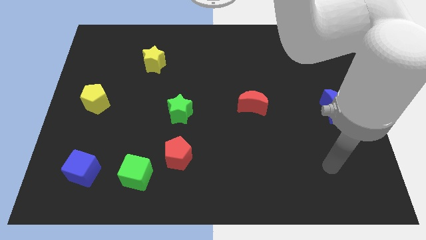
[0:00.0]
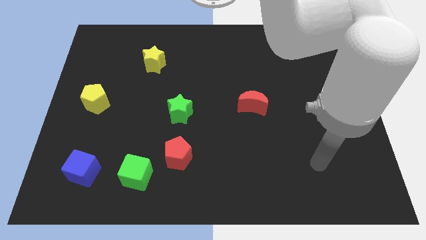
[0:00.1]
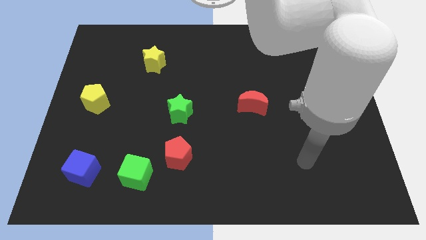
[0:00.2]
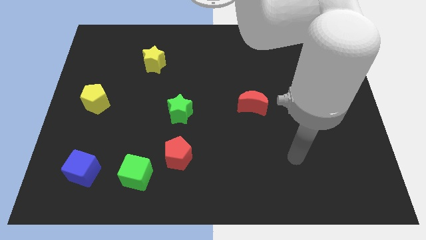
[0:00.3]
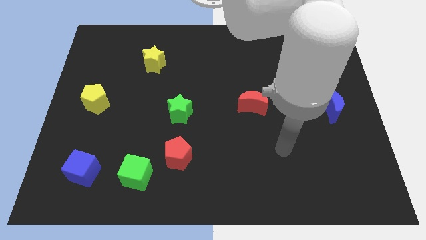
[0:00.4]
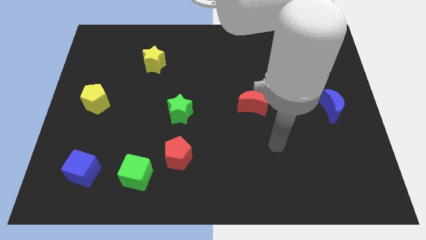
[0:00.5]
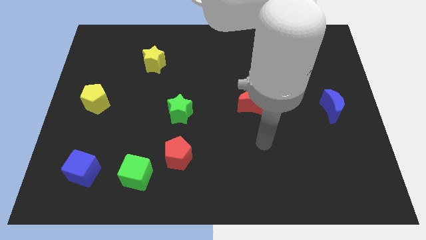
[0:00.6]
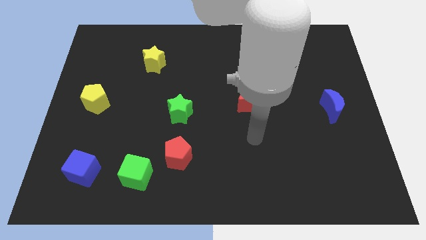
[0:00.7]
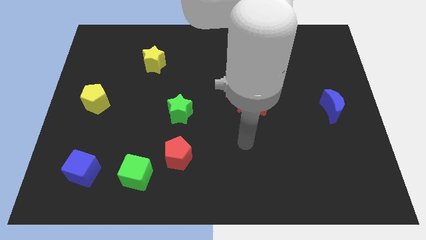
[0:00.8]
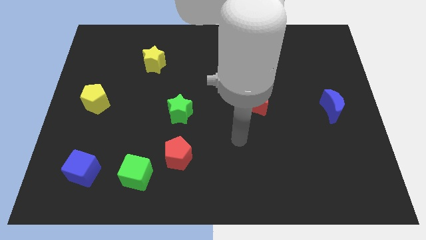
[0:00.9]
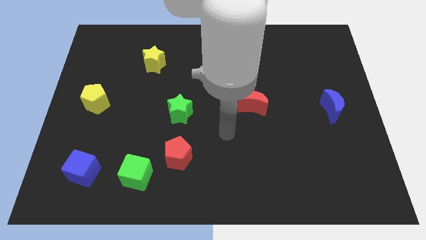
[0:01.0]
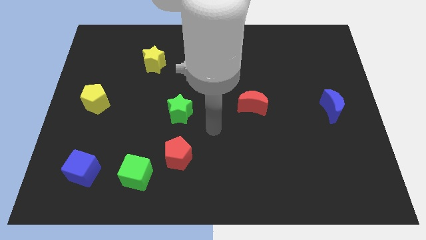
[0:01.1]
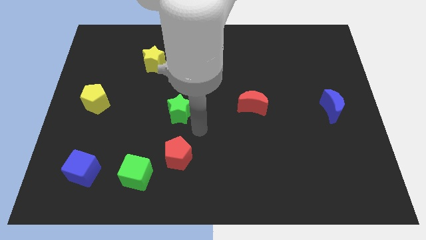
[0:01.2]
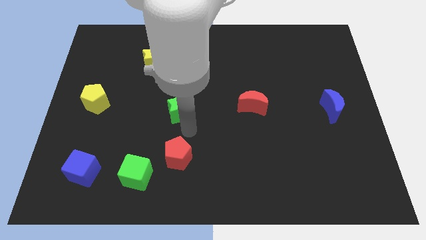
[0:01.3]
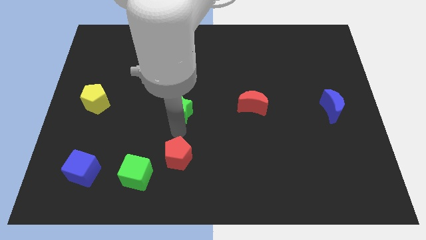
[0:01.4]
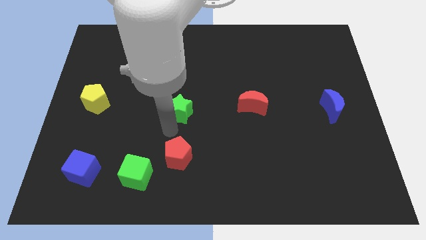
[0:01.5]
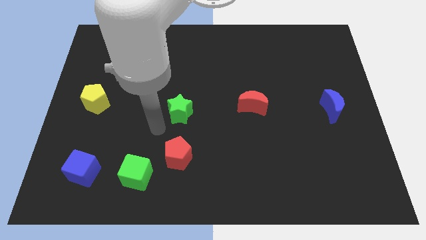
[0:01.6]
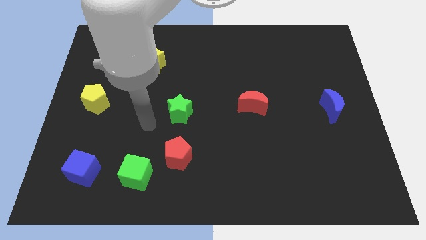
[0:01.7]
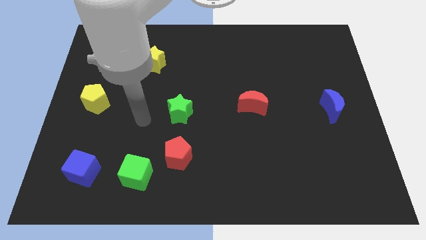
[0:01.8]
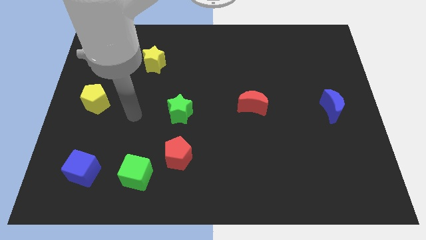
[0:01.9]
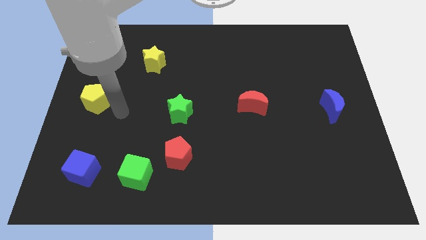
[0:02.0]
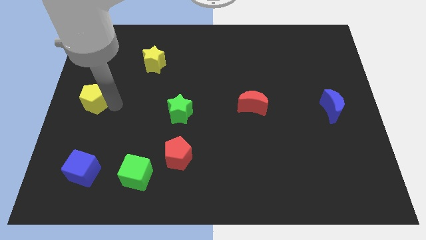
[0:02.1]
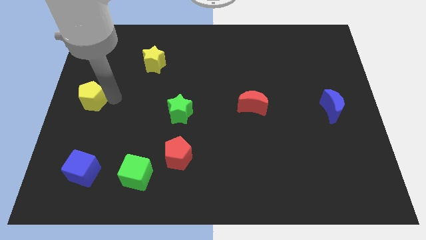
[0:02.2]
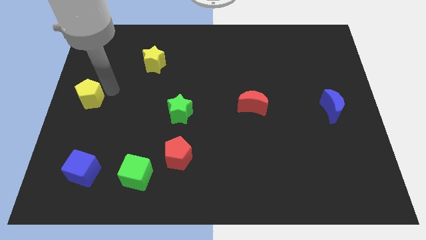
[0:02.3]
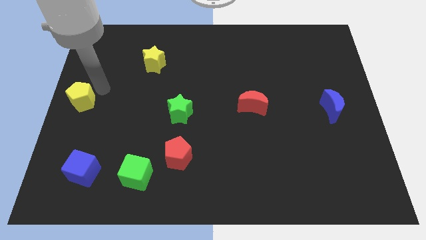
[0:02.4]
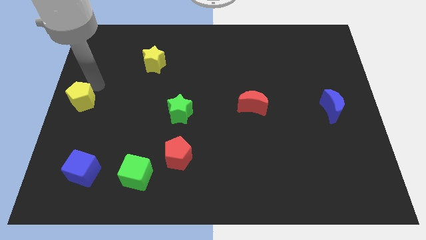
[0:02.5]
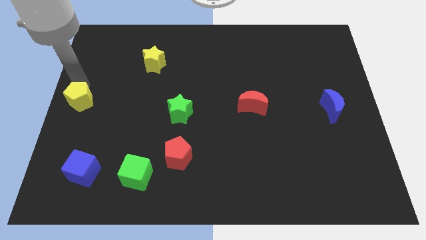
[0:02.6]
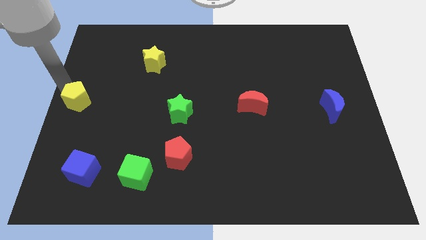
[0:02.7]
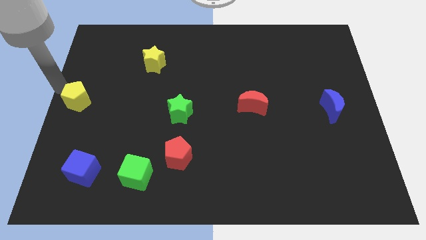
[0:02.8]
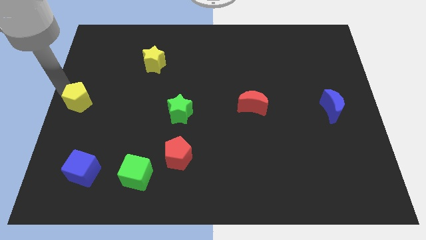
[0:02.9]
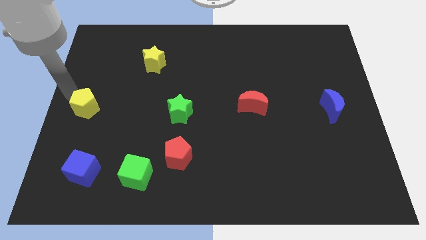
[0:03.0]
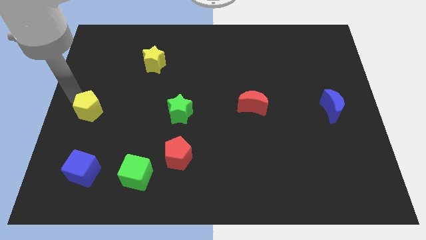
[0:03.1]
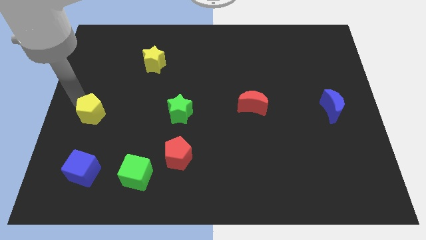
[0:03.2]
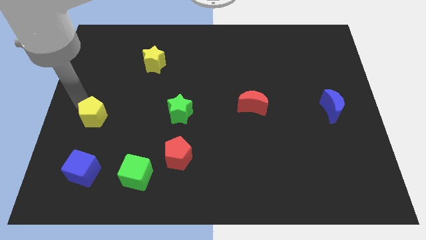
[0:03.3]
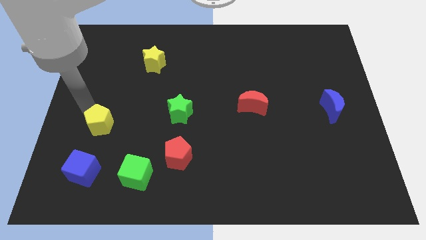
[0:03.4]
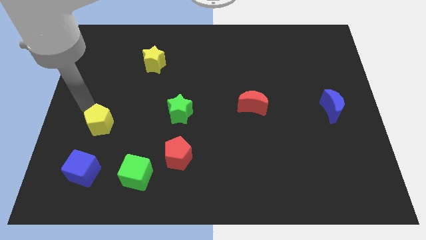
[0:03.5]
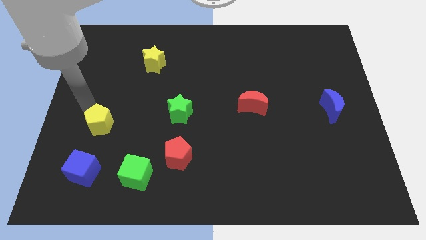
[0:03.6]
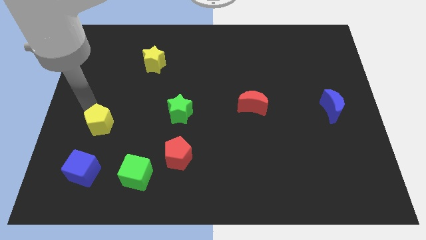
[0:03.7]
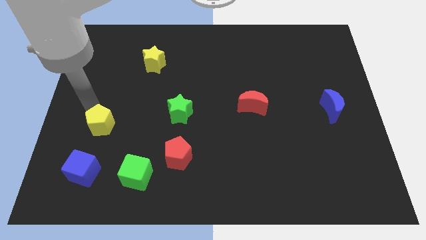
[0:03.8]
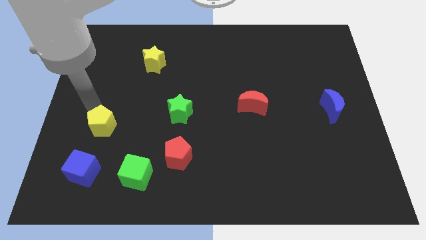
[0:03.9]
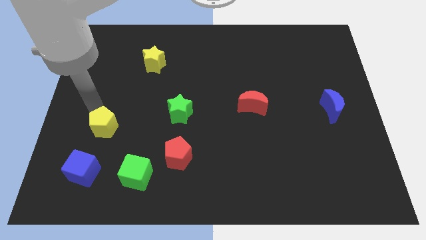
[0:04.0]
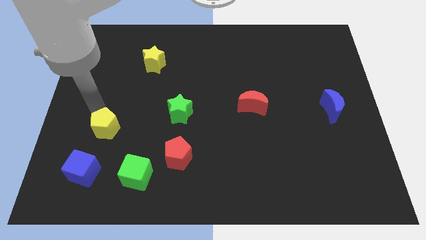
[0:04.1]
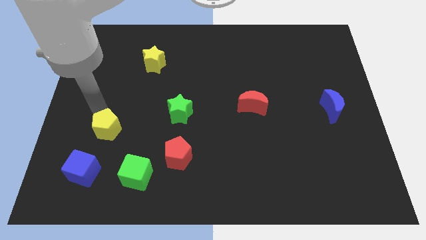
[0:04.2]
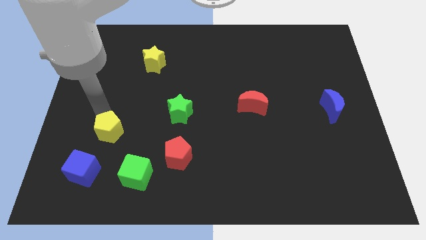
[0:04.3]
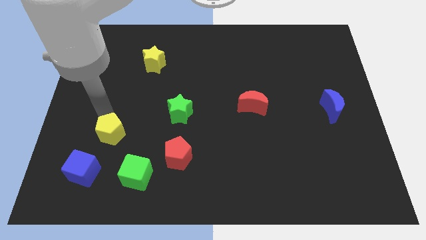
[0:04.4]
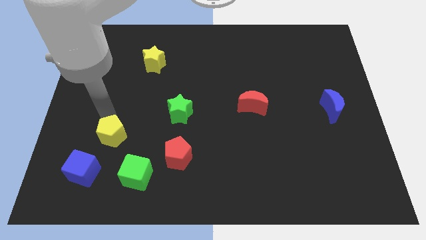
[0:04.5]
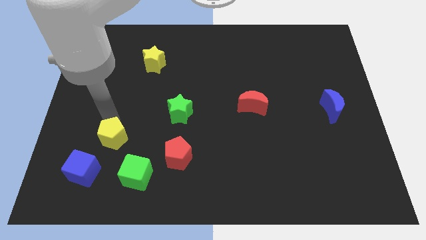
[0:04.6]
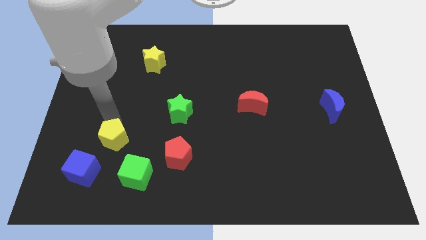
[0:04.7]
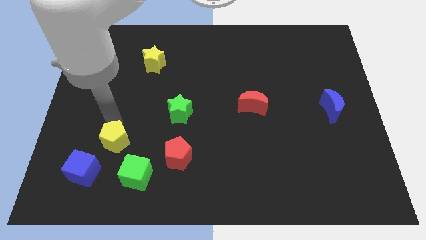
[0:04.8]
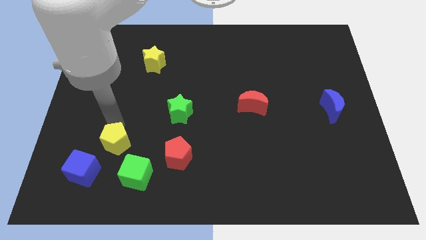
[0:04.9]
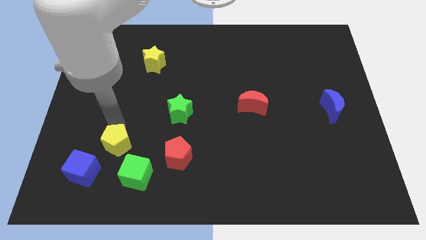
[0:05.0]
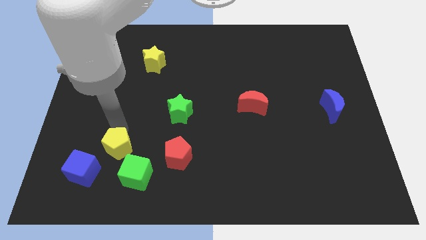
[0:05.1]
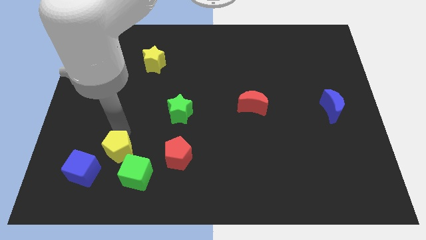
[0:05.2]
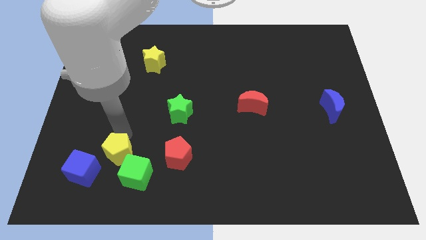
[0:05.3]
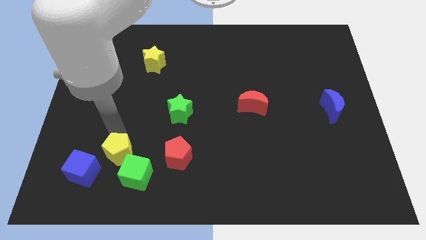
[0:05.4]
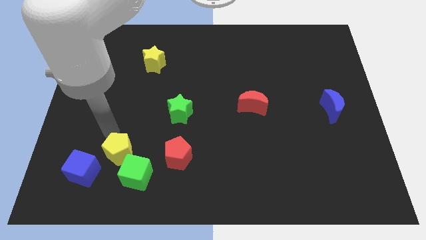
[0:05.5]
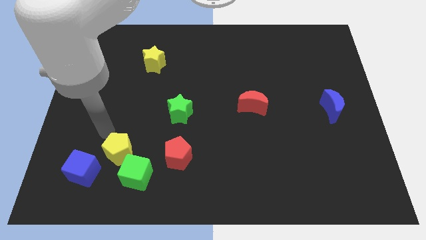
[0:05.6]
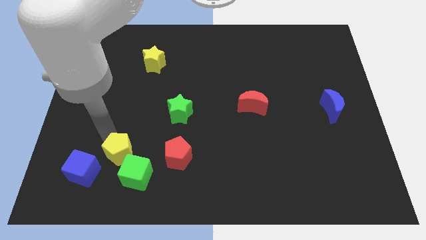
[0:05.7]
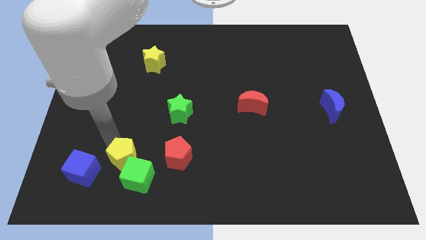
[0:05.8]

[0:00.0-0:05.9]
push the yellow pentagon next to the green cube
